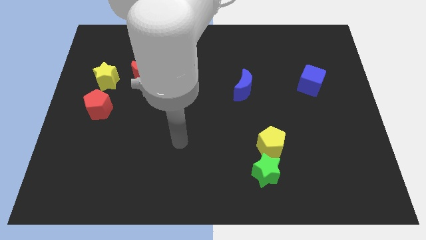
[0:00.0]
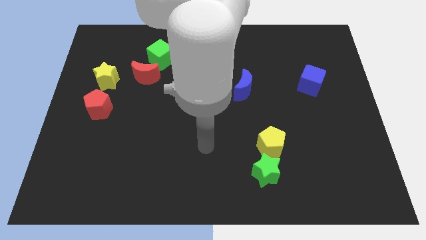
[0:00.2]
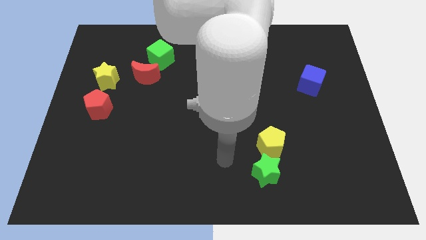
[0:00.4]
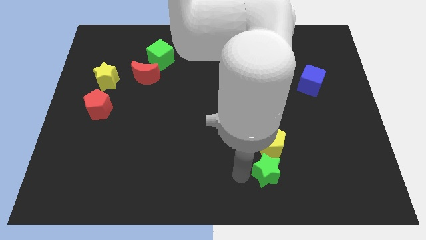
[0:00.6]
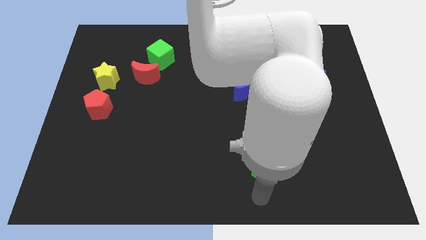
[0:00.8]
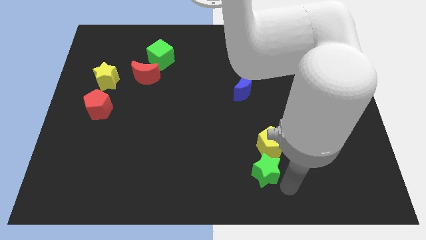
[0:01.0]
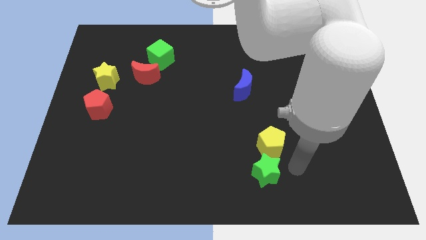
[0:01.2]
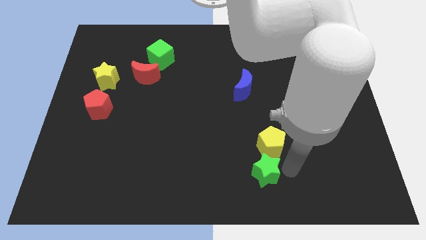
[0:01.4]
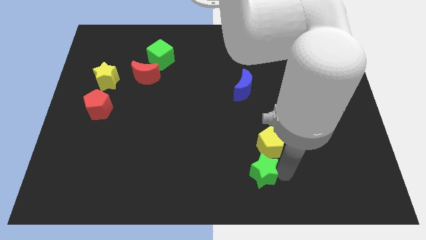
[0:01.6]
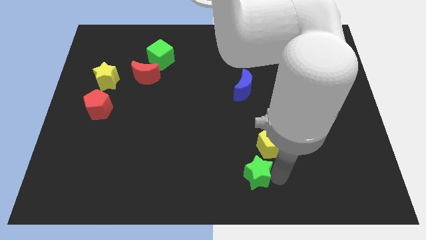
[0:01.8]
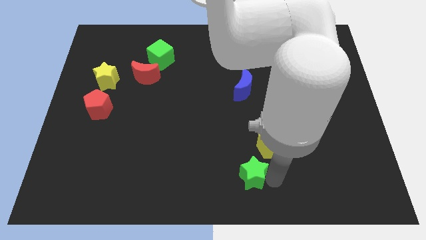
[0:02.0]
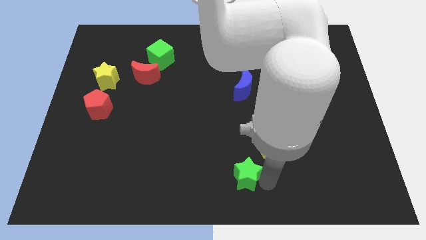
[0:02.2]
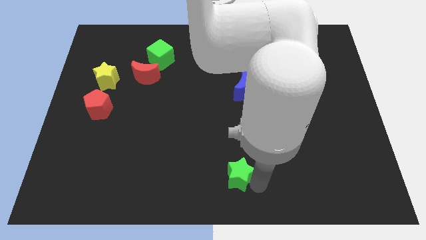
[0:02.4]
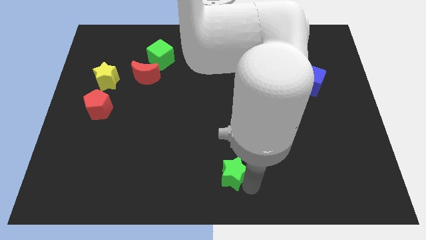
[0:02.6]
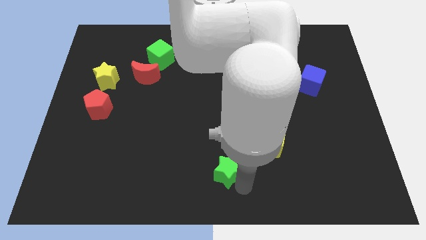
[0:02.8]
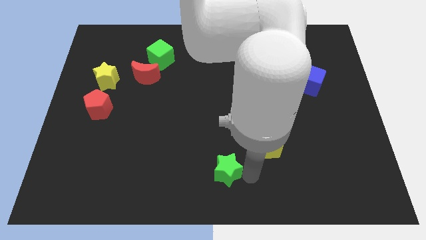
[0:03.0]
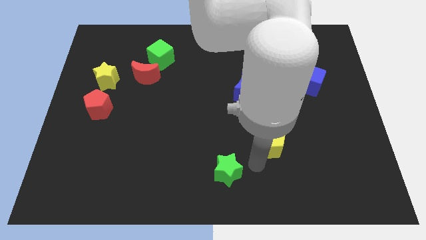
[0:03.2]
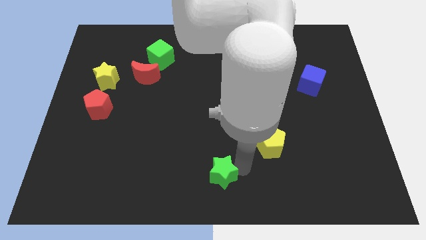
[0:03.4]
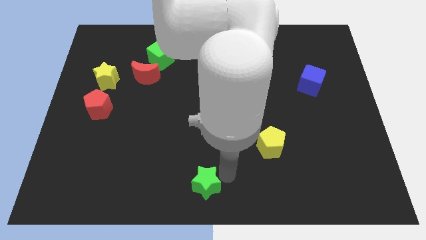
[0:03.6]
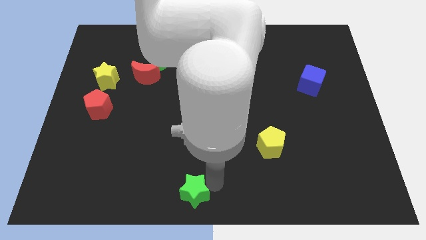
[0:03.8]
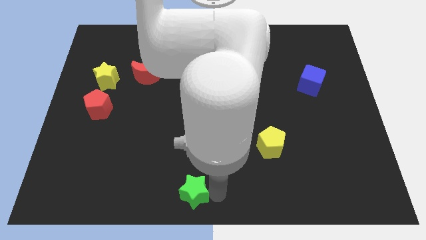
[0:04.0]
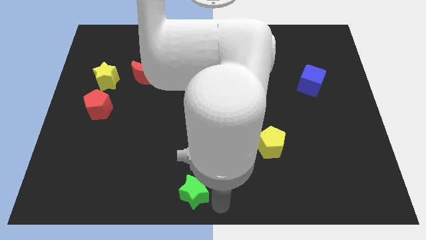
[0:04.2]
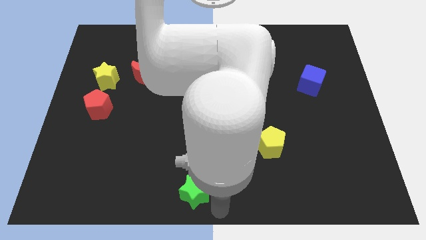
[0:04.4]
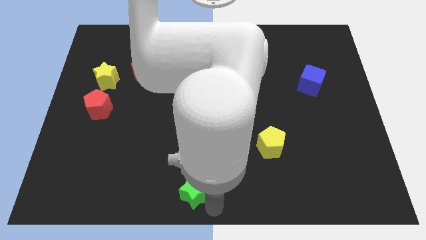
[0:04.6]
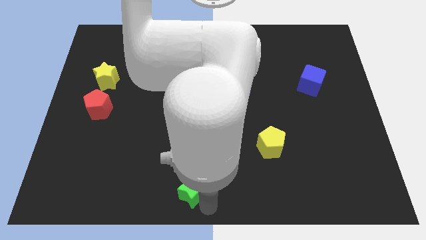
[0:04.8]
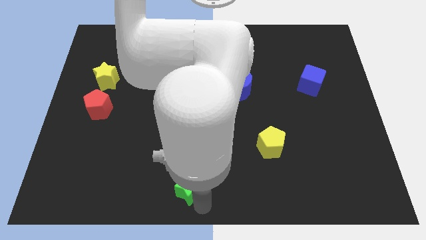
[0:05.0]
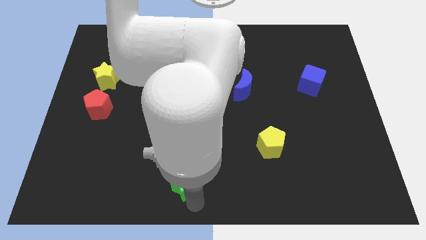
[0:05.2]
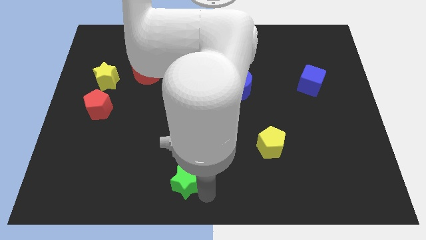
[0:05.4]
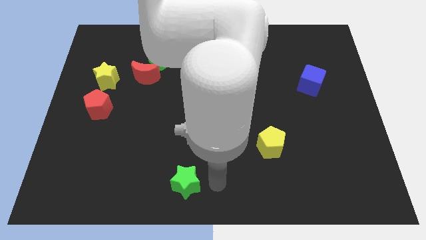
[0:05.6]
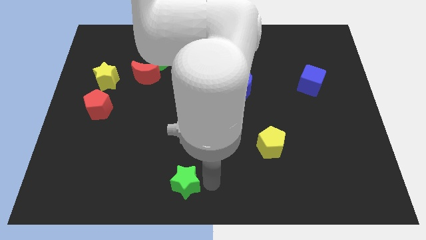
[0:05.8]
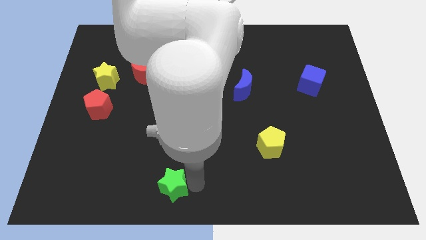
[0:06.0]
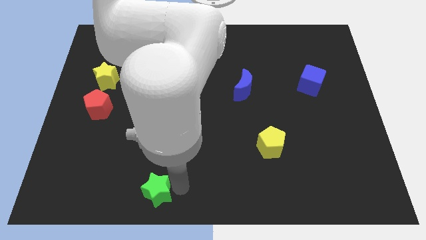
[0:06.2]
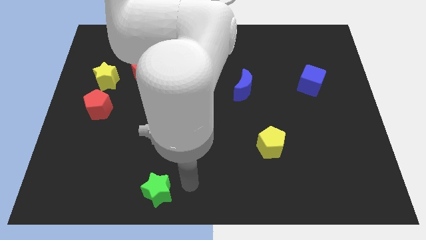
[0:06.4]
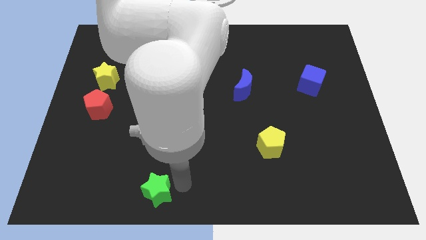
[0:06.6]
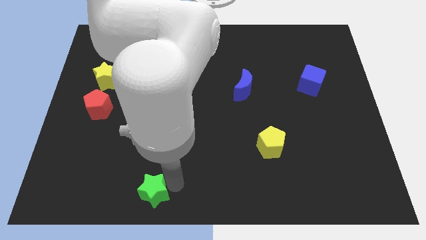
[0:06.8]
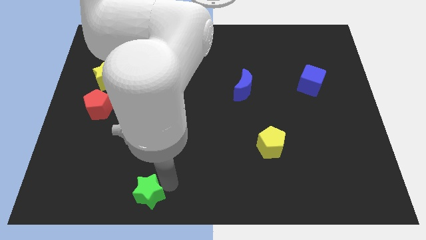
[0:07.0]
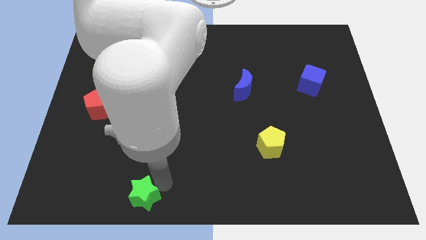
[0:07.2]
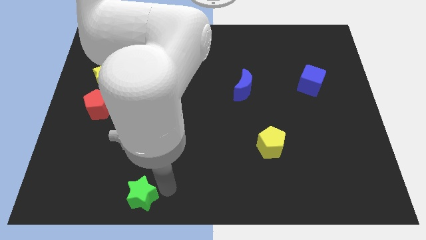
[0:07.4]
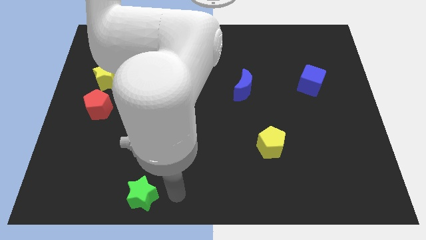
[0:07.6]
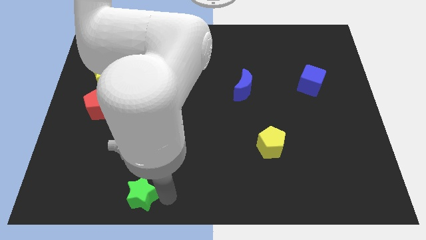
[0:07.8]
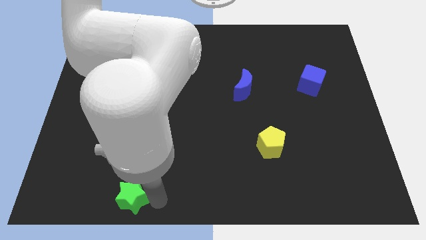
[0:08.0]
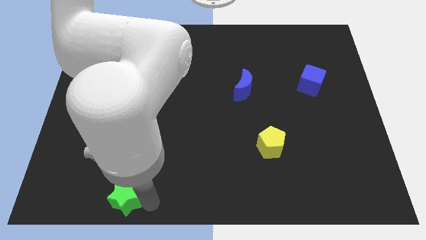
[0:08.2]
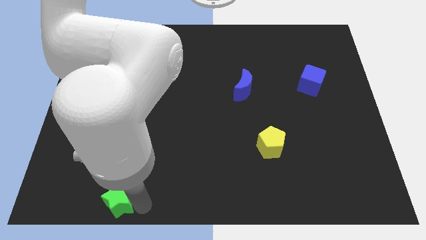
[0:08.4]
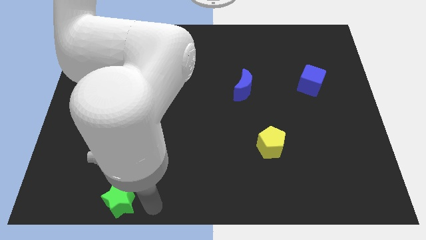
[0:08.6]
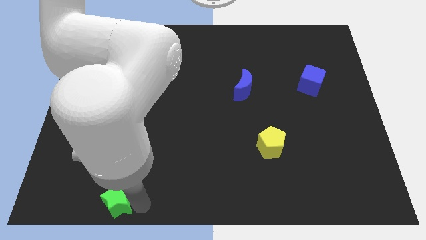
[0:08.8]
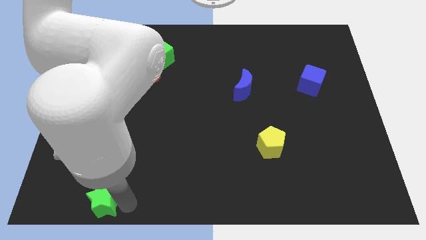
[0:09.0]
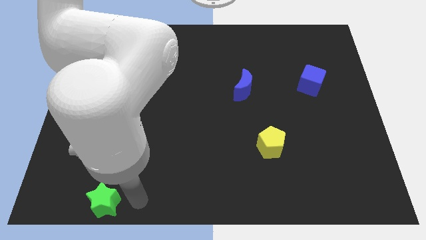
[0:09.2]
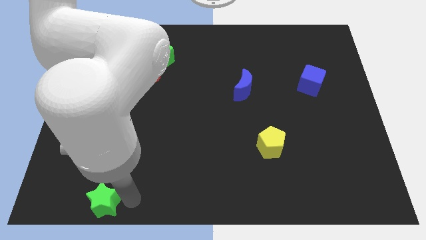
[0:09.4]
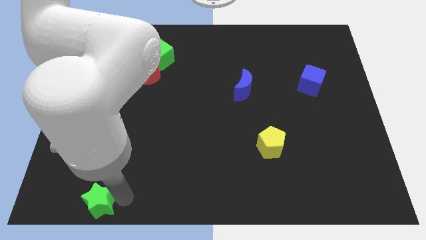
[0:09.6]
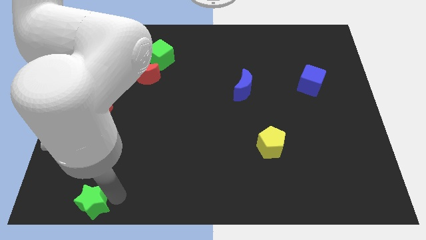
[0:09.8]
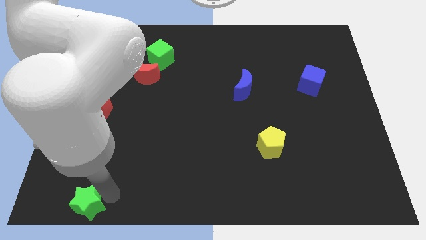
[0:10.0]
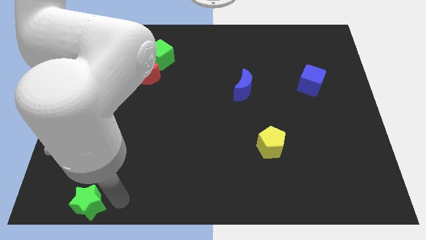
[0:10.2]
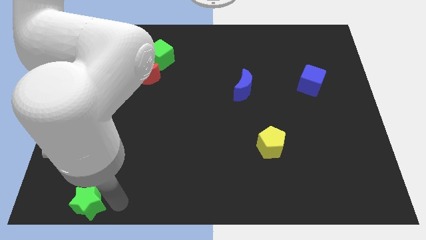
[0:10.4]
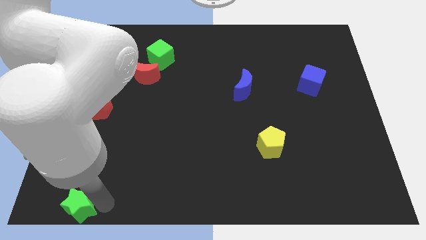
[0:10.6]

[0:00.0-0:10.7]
slide the green star to the lower left corner

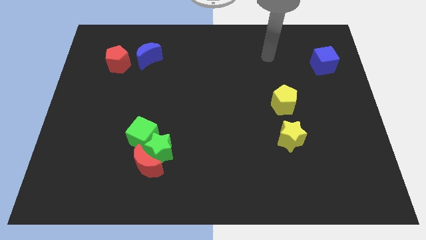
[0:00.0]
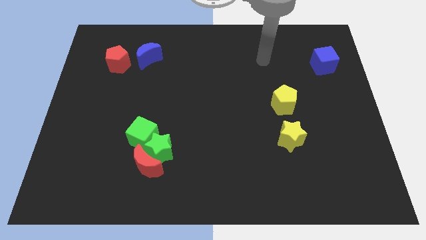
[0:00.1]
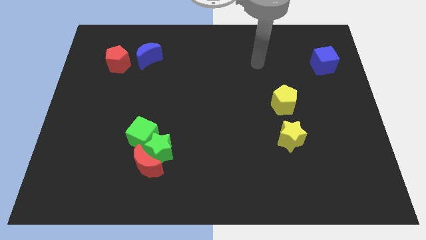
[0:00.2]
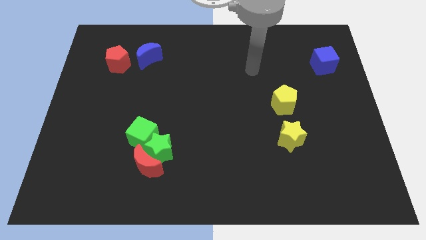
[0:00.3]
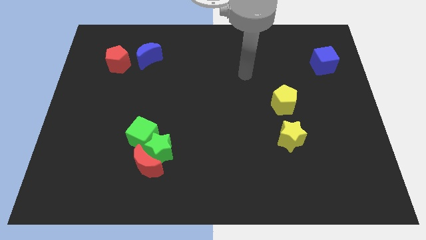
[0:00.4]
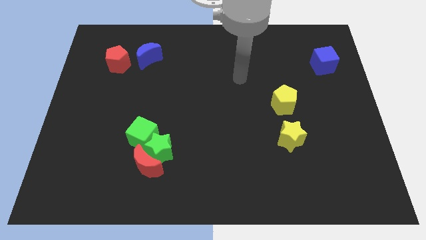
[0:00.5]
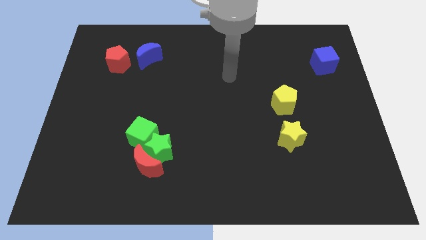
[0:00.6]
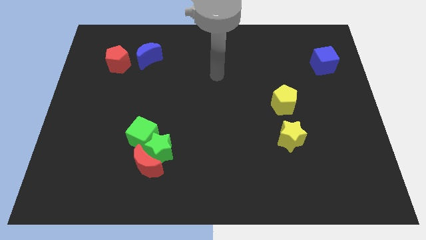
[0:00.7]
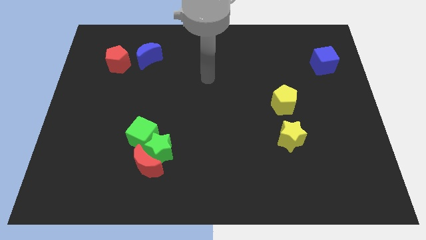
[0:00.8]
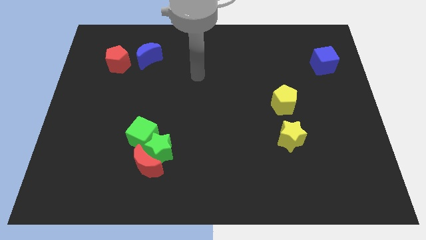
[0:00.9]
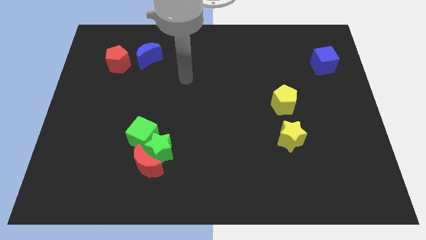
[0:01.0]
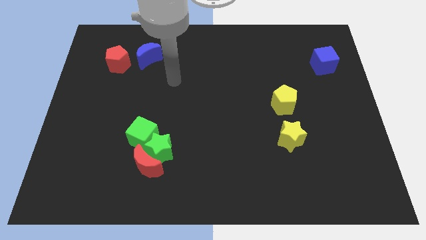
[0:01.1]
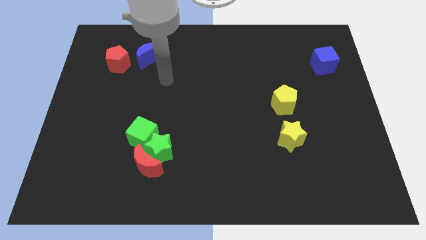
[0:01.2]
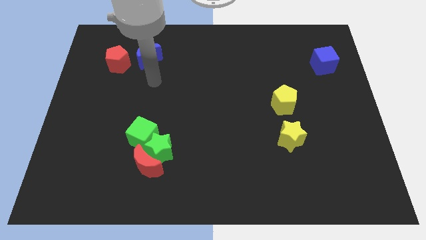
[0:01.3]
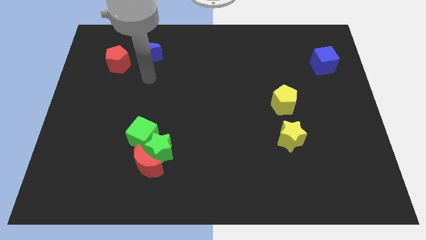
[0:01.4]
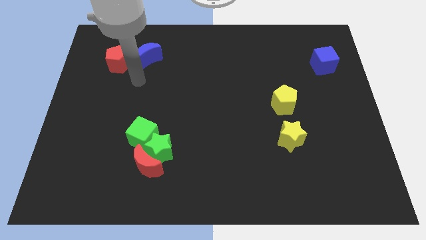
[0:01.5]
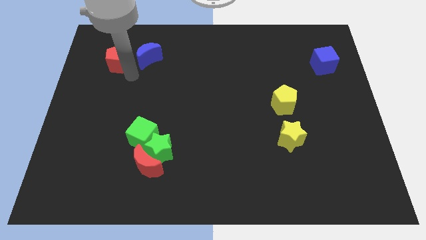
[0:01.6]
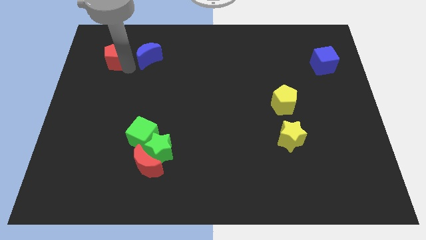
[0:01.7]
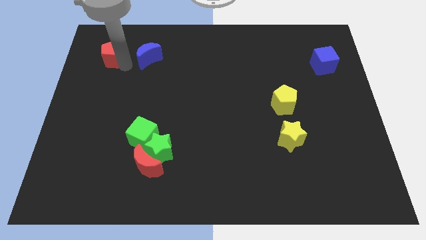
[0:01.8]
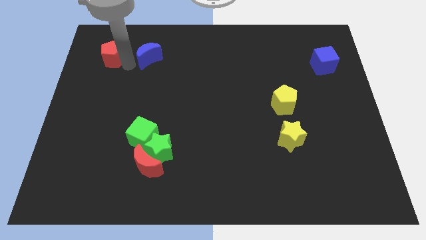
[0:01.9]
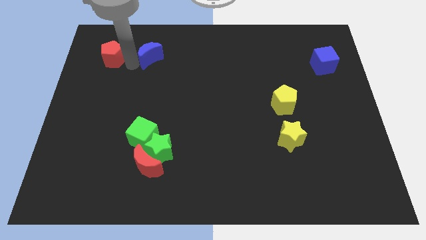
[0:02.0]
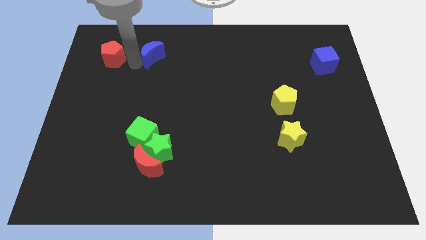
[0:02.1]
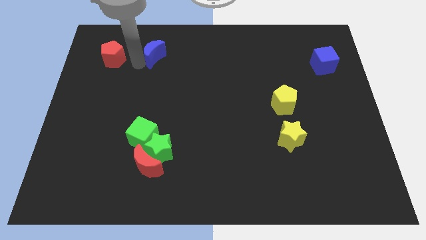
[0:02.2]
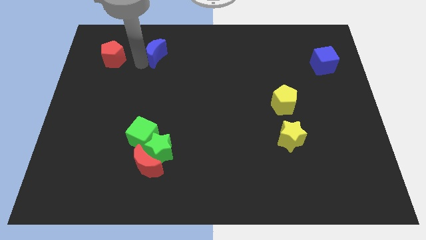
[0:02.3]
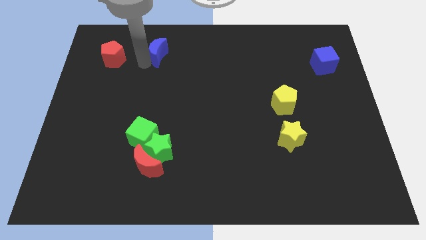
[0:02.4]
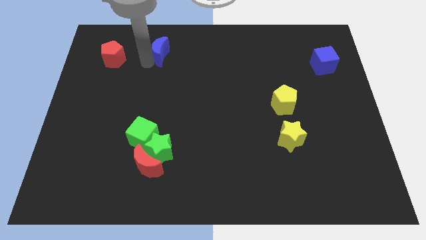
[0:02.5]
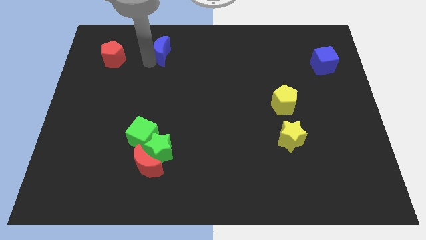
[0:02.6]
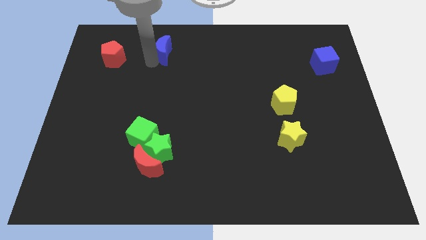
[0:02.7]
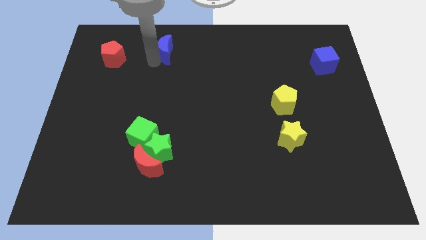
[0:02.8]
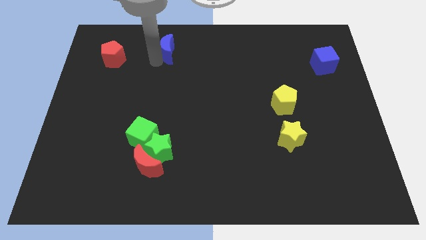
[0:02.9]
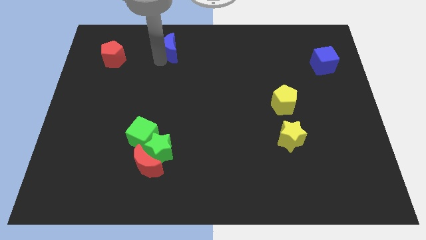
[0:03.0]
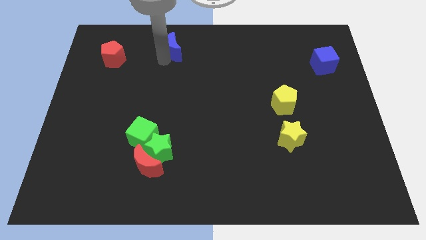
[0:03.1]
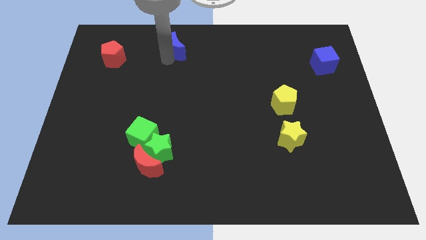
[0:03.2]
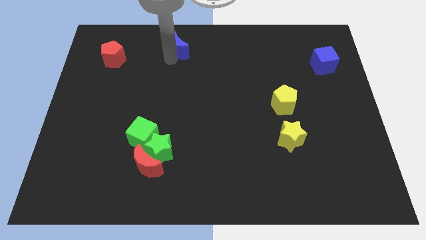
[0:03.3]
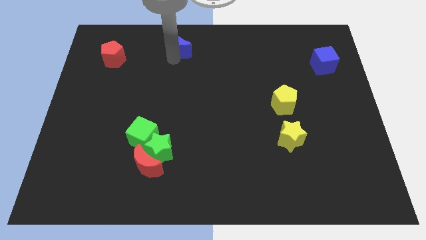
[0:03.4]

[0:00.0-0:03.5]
push the blue moon to the top
